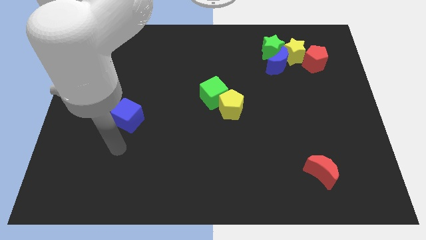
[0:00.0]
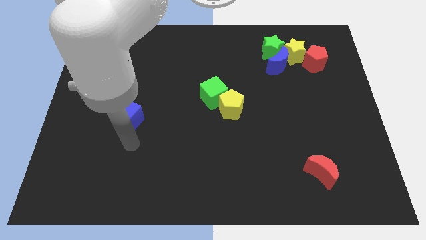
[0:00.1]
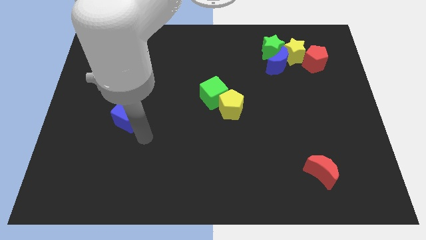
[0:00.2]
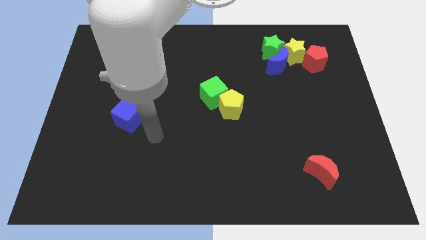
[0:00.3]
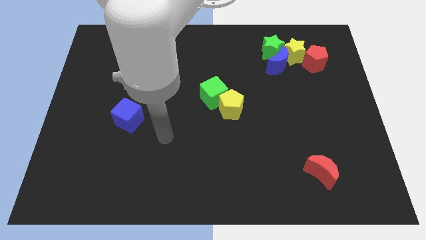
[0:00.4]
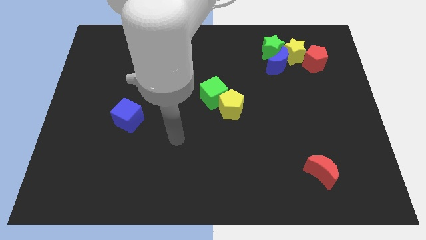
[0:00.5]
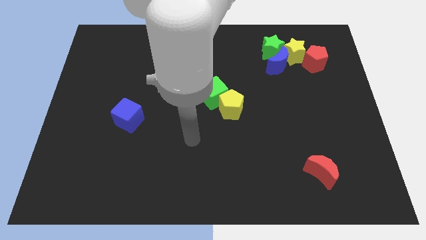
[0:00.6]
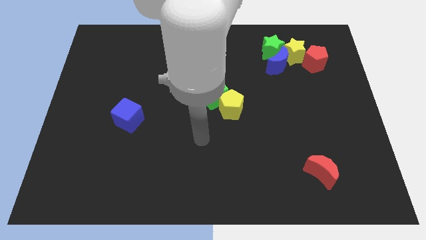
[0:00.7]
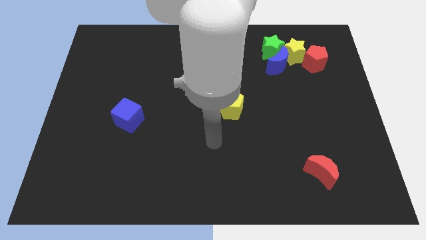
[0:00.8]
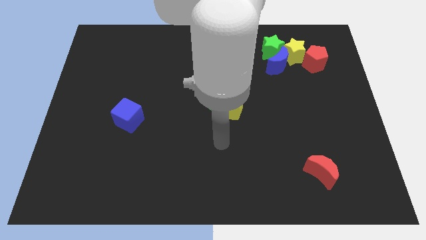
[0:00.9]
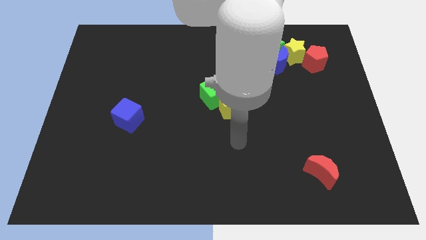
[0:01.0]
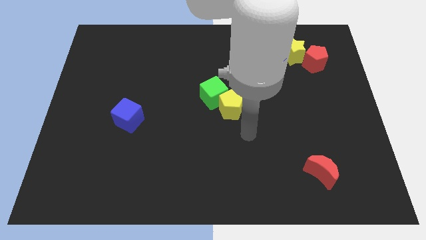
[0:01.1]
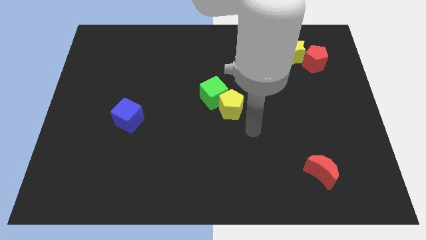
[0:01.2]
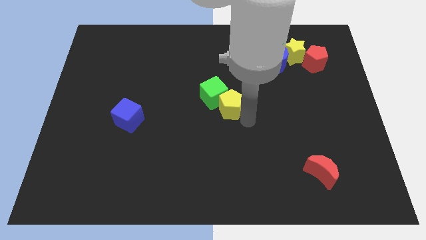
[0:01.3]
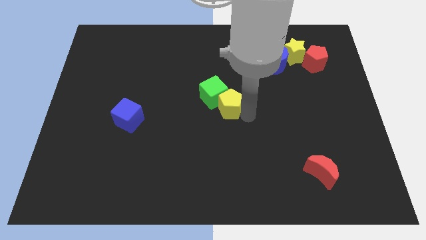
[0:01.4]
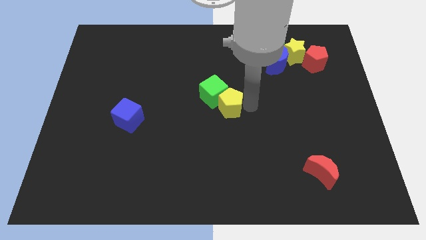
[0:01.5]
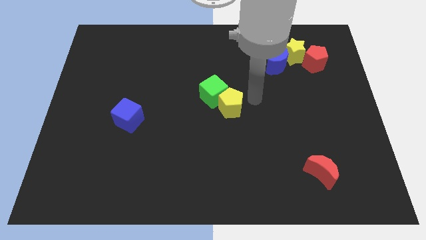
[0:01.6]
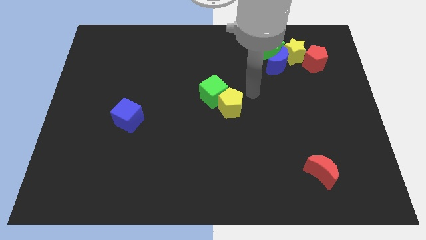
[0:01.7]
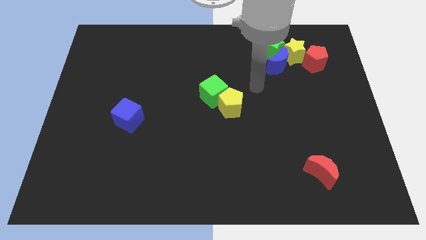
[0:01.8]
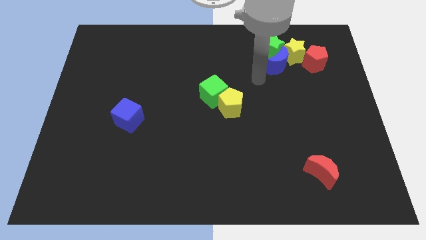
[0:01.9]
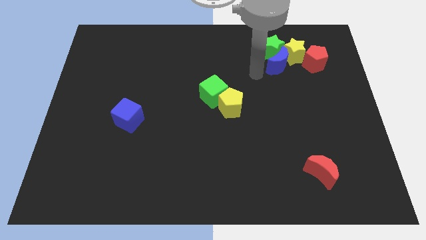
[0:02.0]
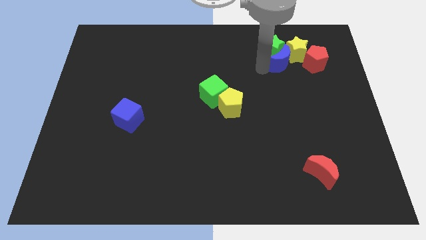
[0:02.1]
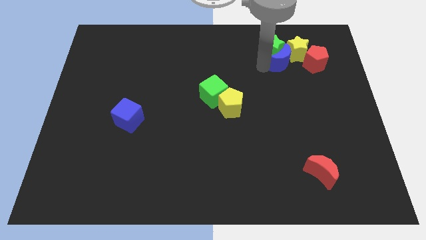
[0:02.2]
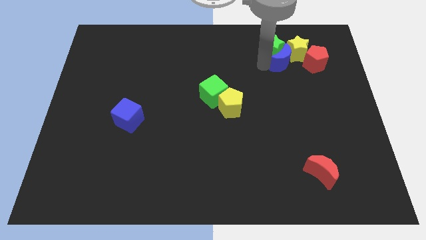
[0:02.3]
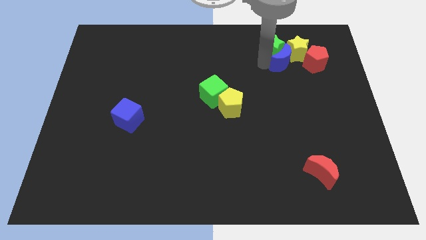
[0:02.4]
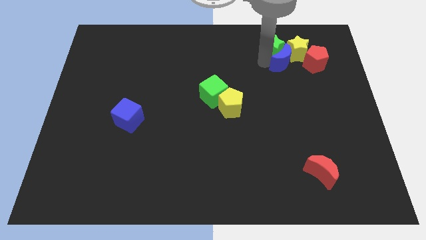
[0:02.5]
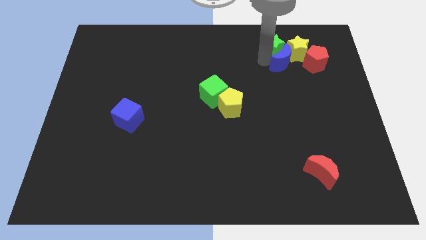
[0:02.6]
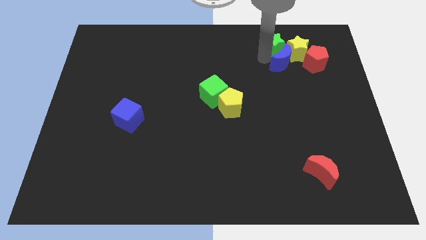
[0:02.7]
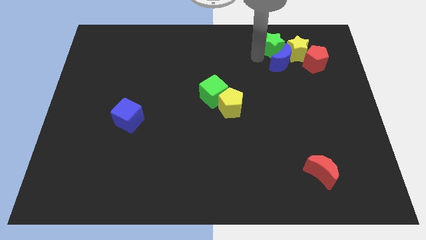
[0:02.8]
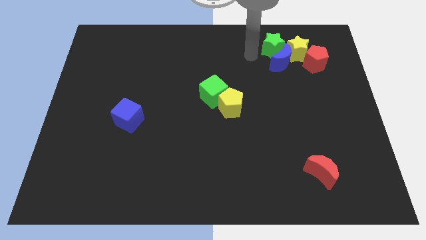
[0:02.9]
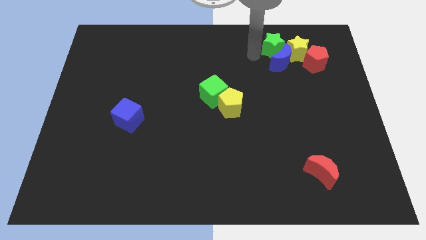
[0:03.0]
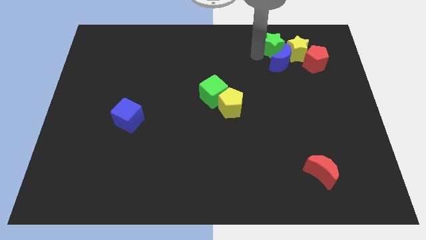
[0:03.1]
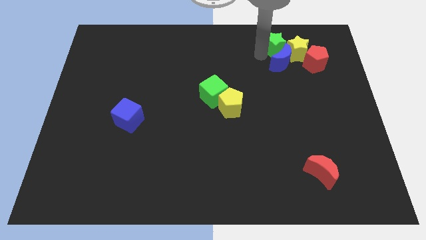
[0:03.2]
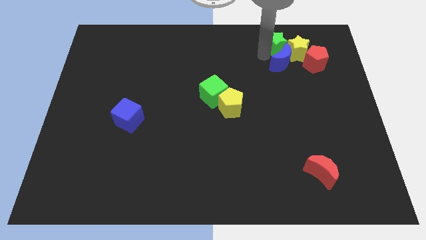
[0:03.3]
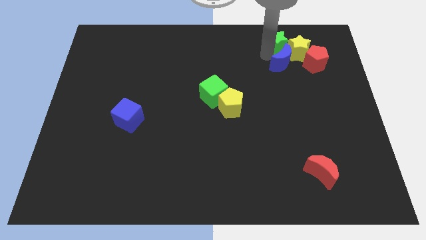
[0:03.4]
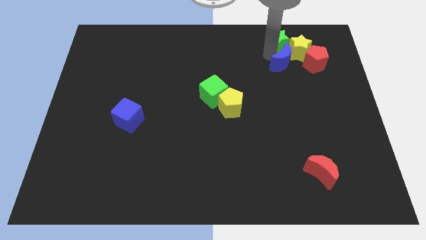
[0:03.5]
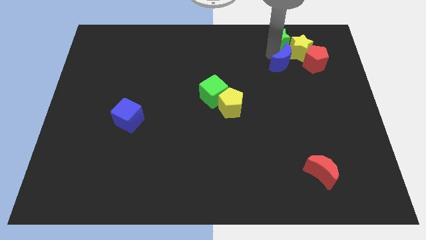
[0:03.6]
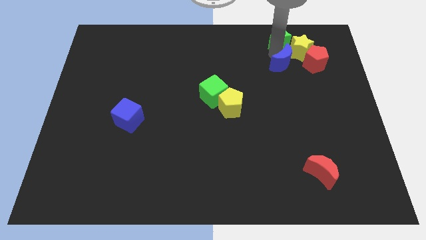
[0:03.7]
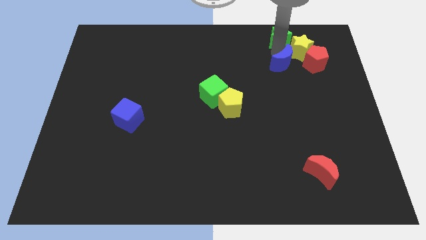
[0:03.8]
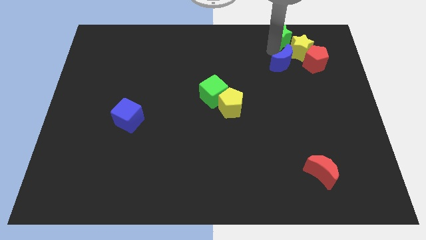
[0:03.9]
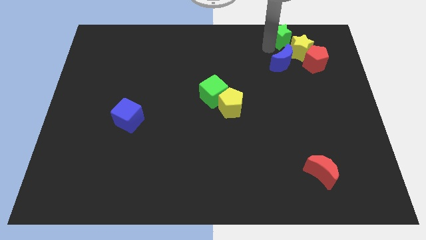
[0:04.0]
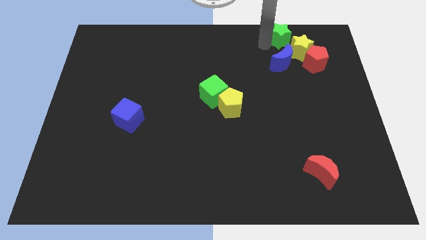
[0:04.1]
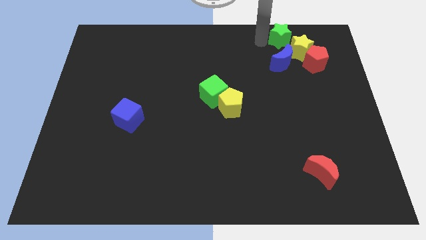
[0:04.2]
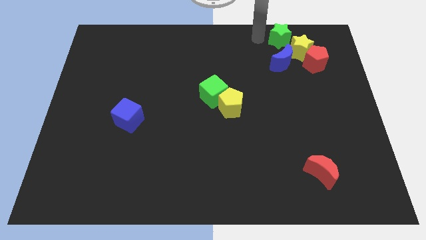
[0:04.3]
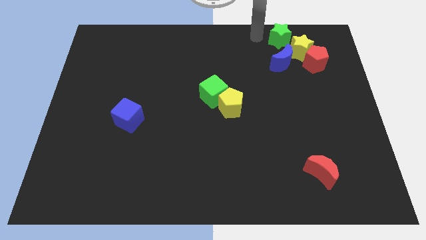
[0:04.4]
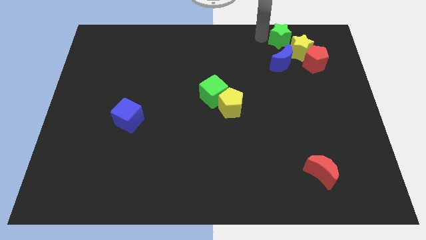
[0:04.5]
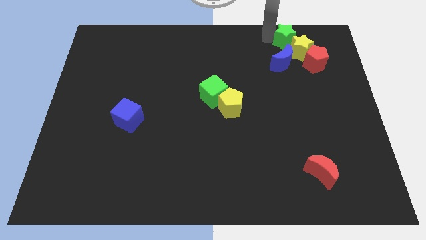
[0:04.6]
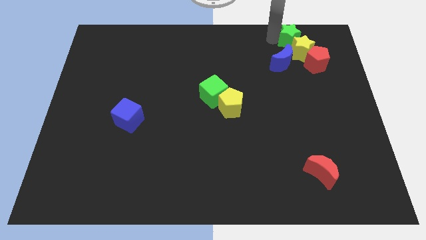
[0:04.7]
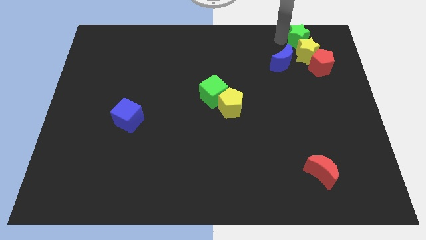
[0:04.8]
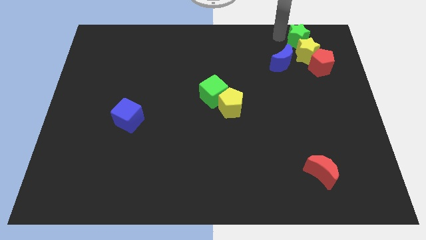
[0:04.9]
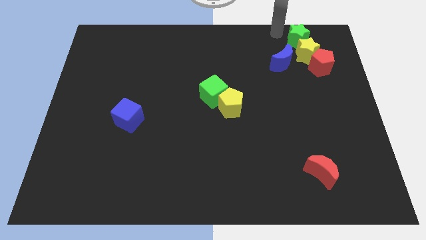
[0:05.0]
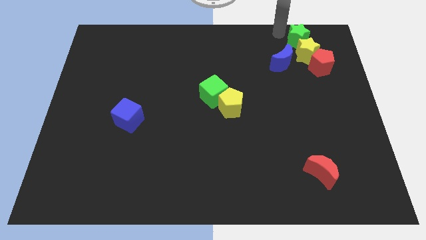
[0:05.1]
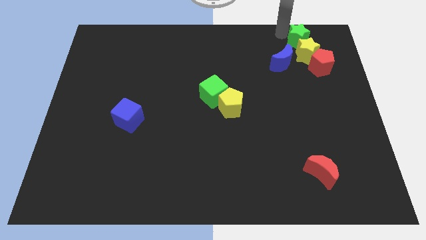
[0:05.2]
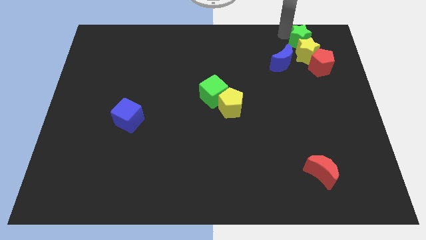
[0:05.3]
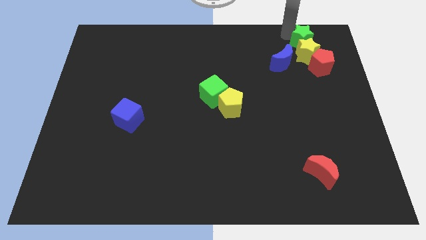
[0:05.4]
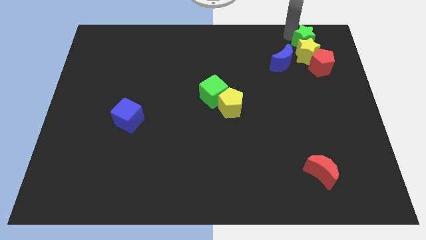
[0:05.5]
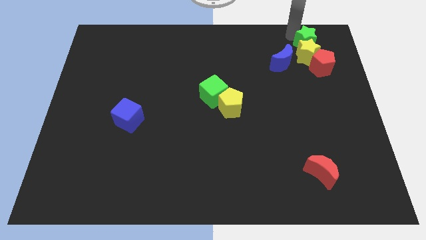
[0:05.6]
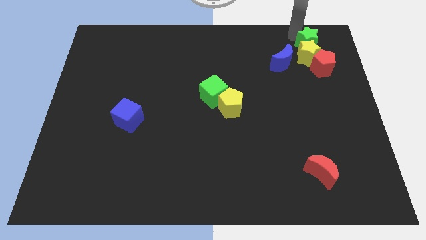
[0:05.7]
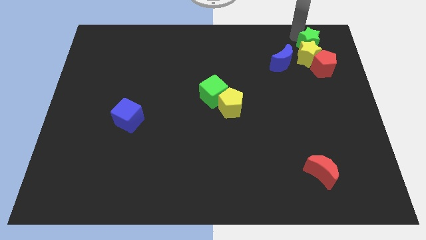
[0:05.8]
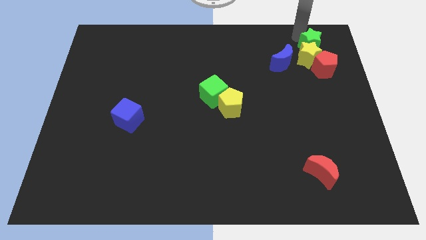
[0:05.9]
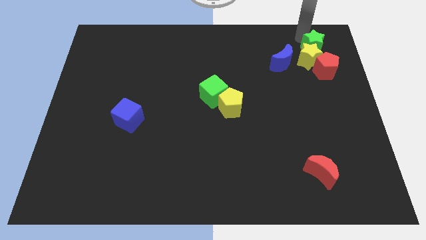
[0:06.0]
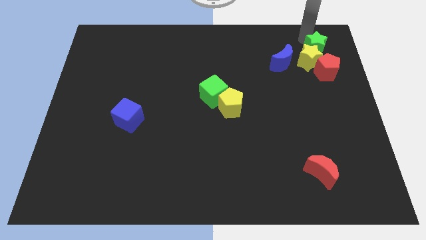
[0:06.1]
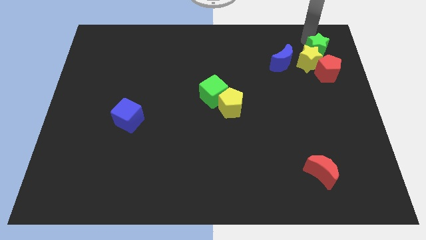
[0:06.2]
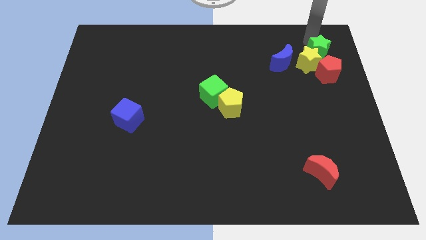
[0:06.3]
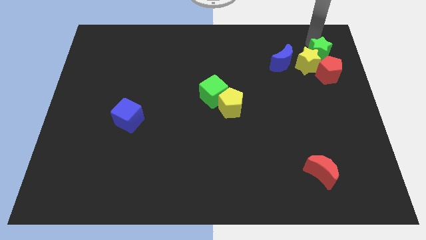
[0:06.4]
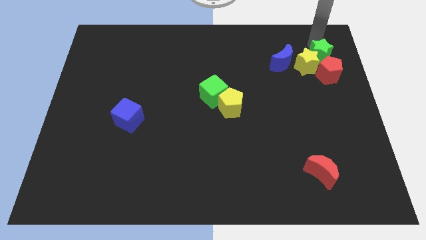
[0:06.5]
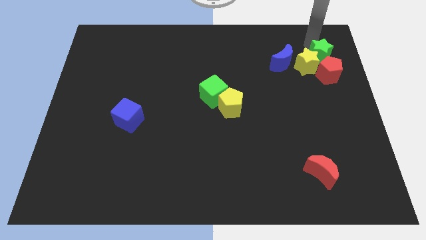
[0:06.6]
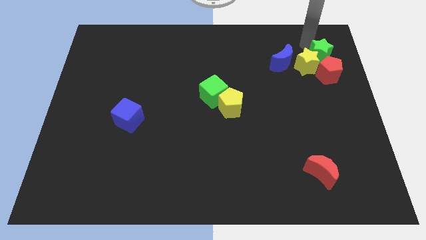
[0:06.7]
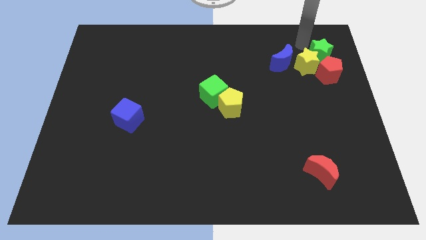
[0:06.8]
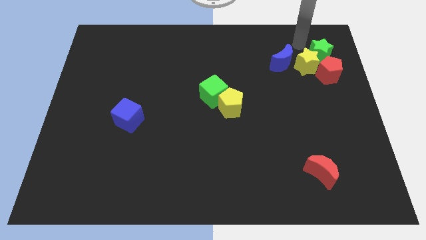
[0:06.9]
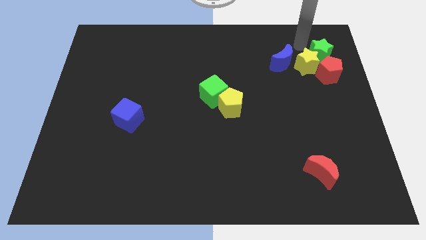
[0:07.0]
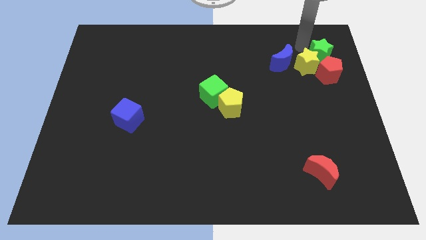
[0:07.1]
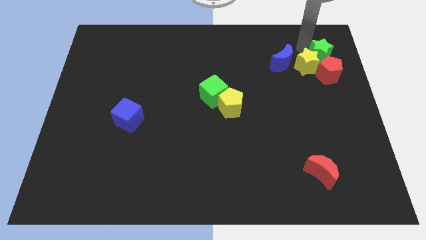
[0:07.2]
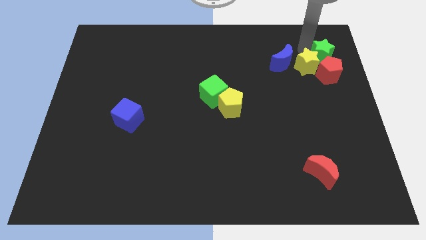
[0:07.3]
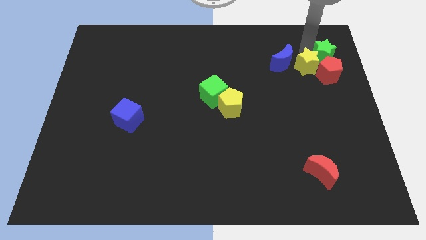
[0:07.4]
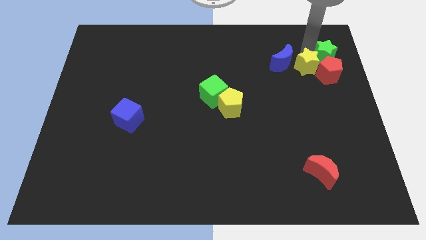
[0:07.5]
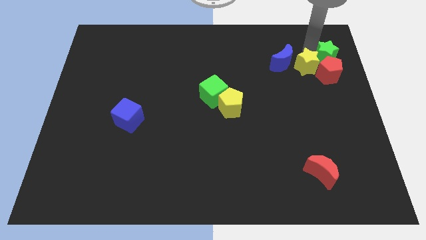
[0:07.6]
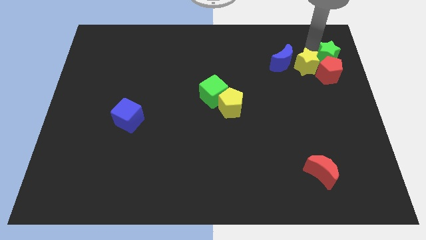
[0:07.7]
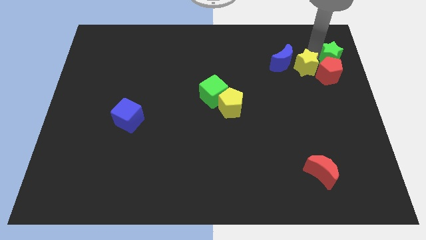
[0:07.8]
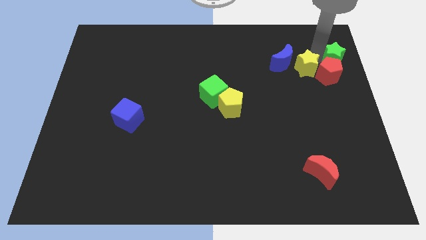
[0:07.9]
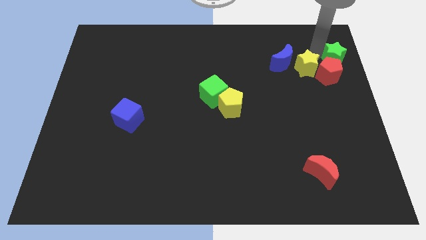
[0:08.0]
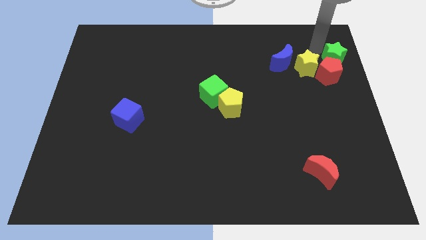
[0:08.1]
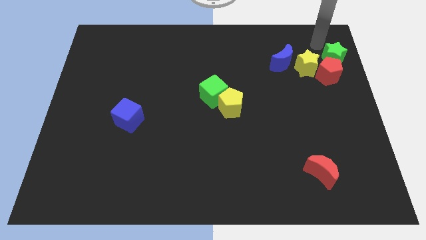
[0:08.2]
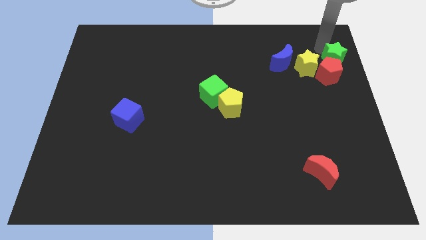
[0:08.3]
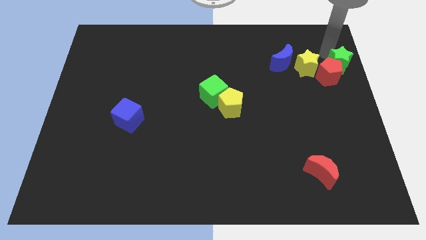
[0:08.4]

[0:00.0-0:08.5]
push the green star to the right side of the board
